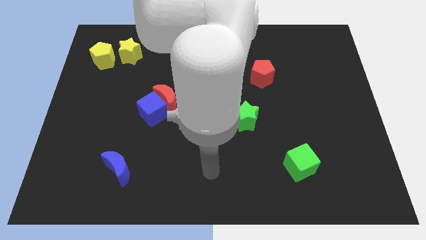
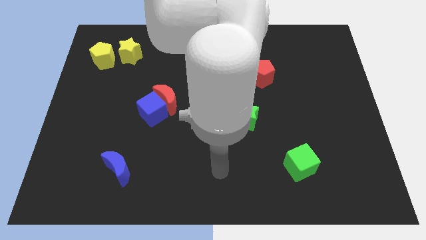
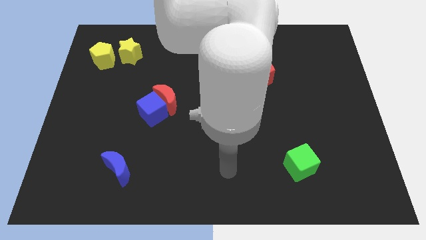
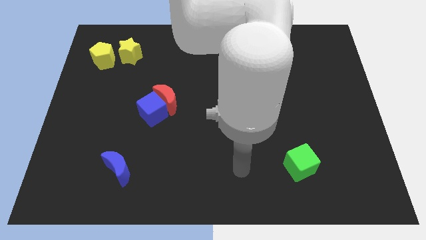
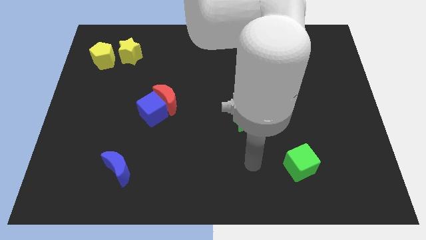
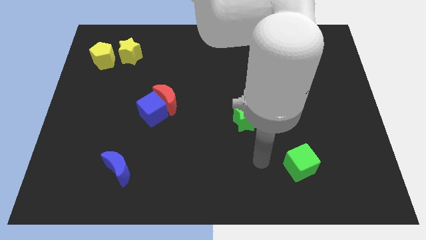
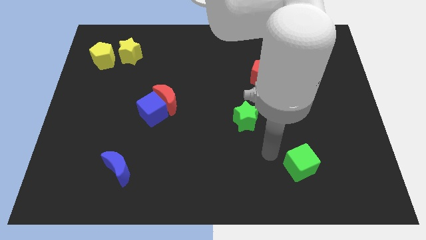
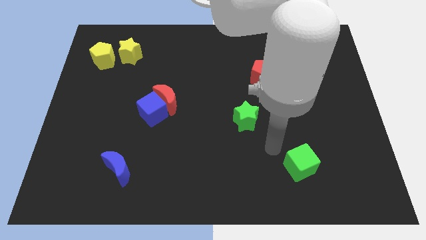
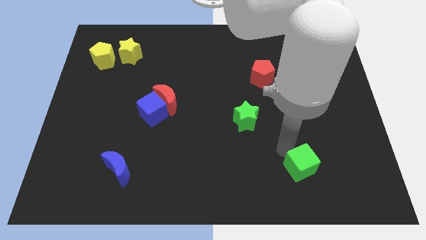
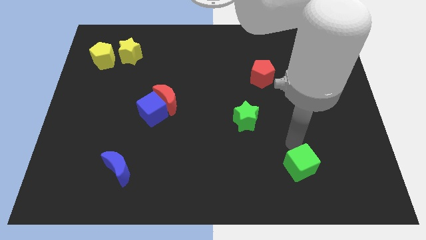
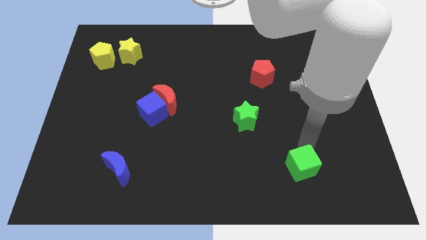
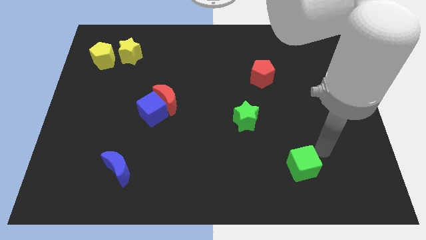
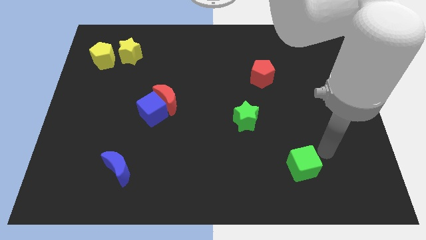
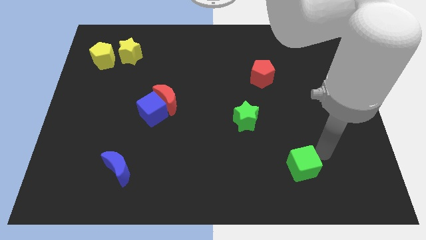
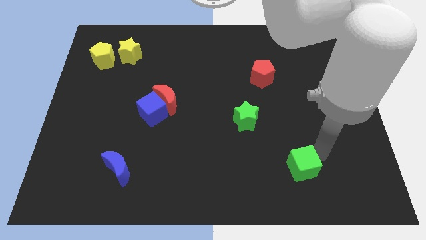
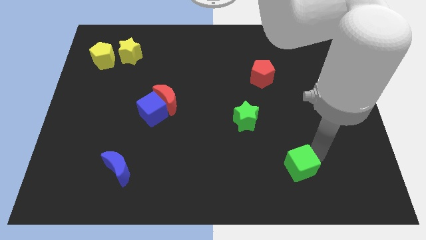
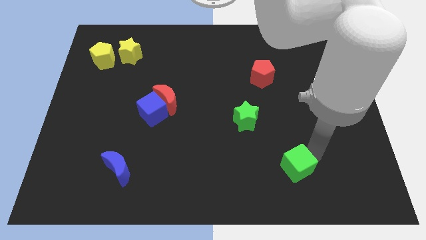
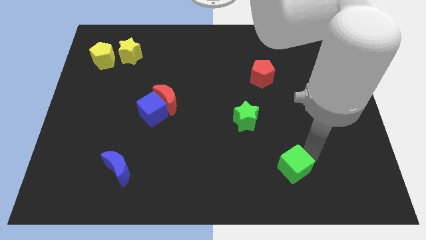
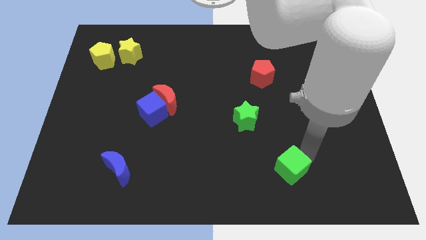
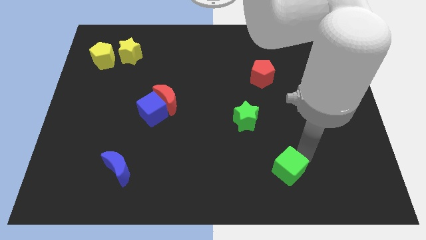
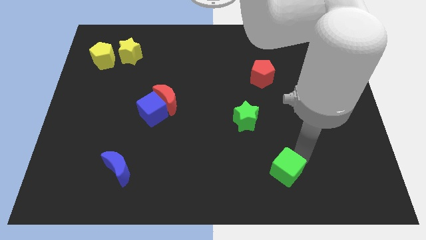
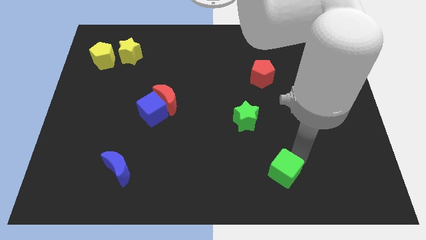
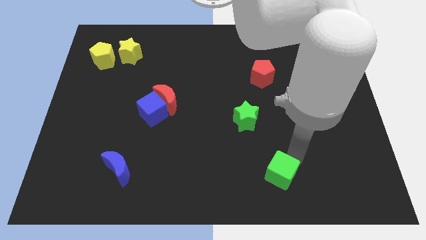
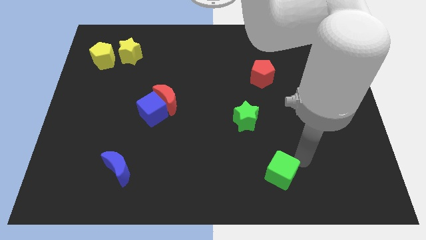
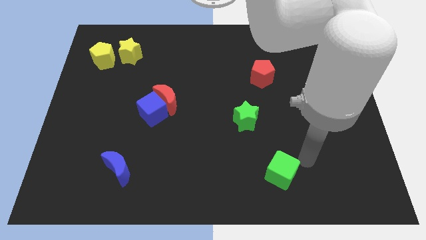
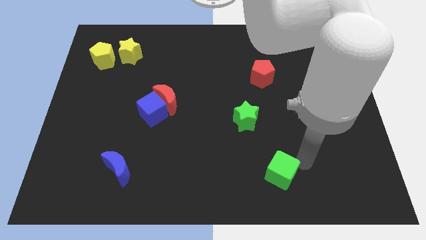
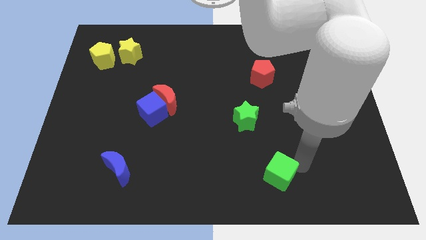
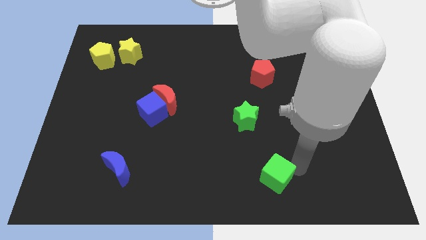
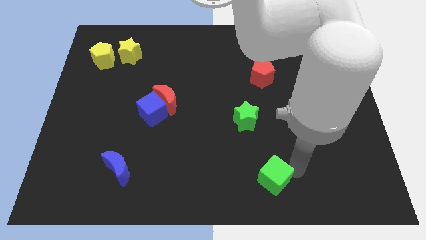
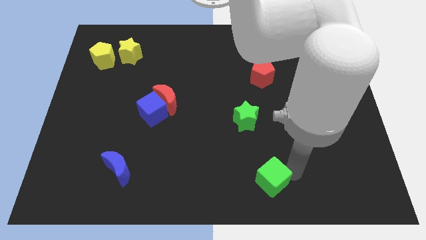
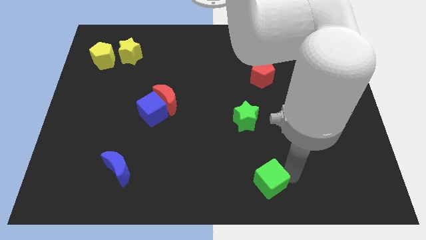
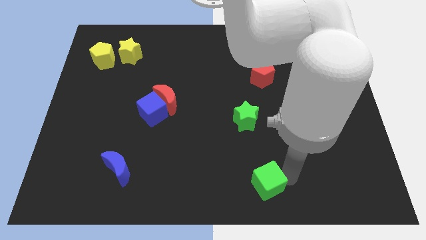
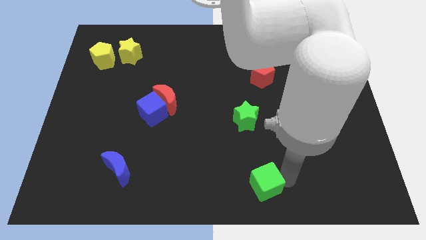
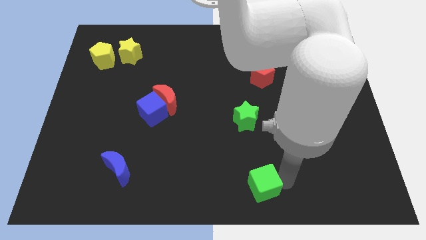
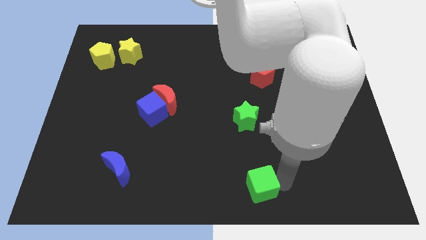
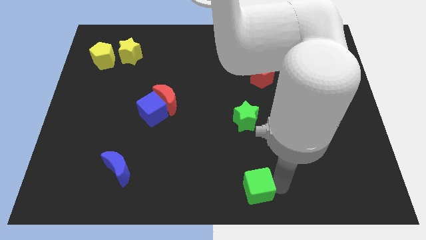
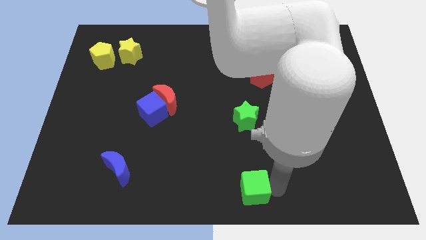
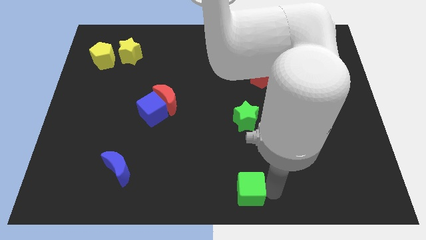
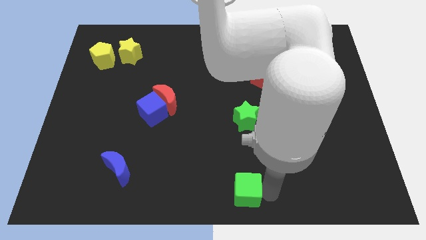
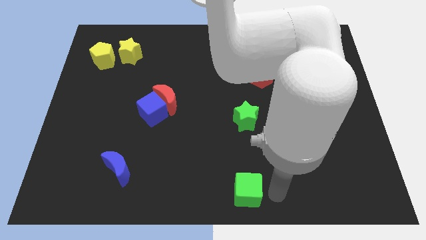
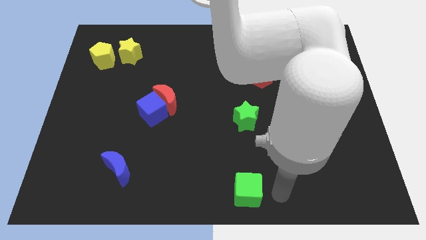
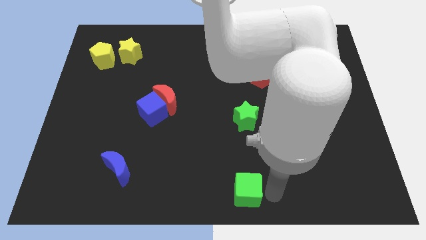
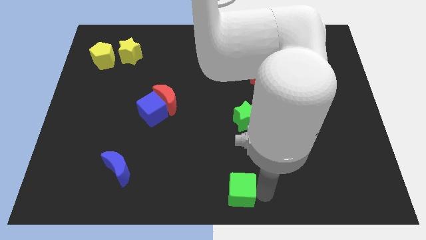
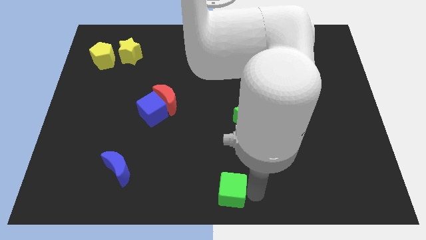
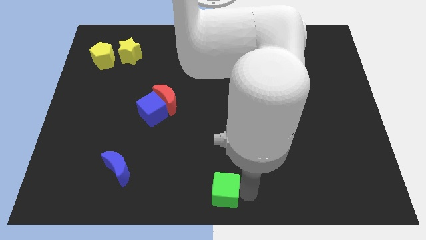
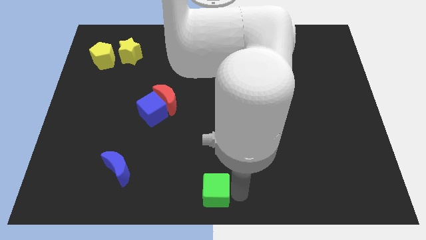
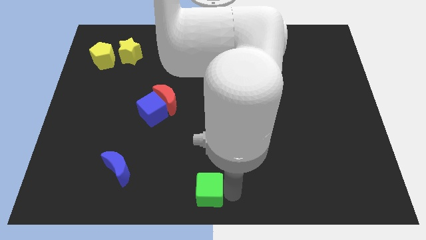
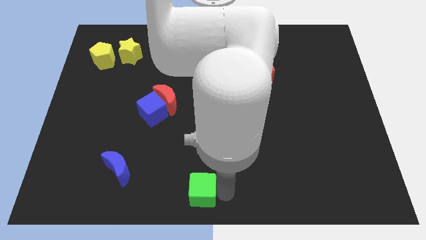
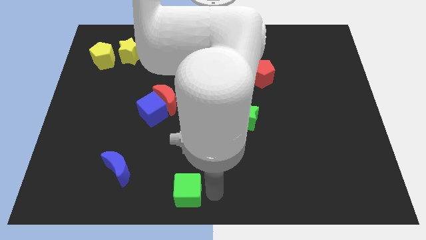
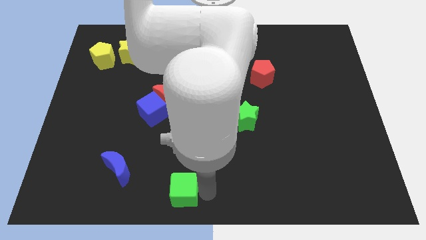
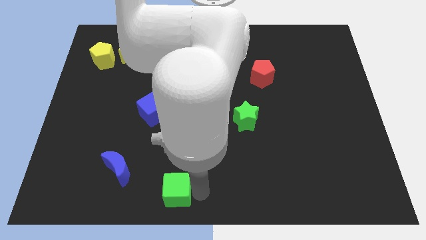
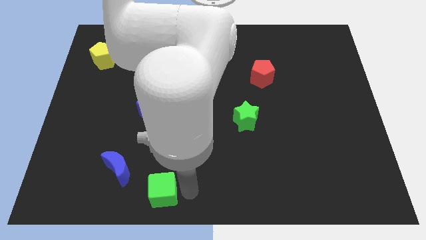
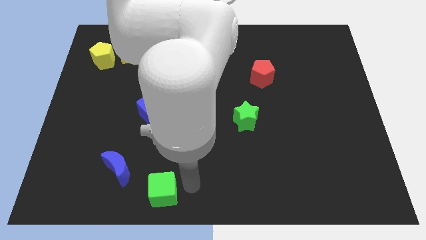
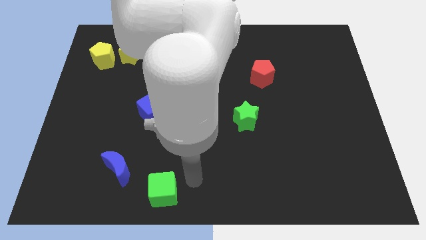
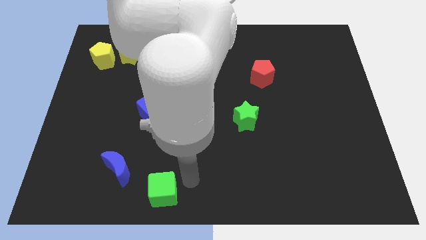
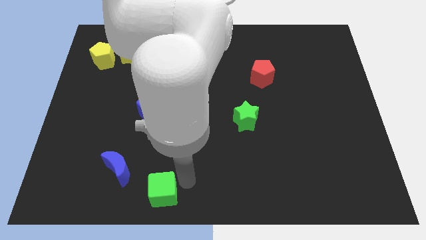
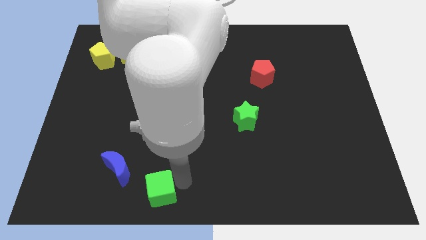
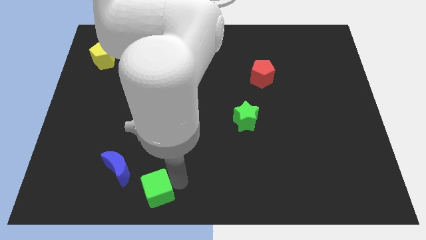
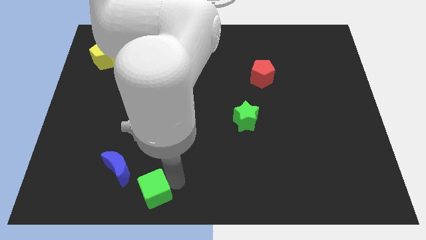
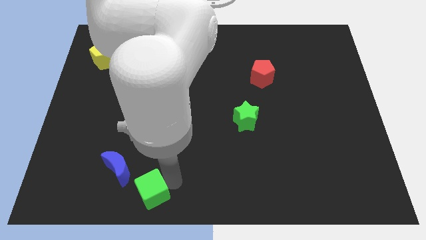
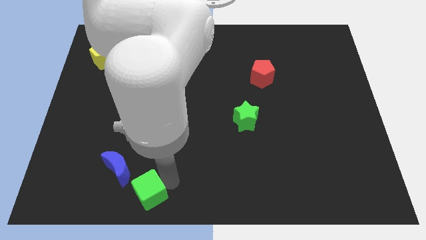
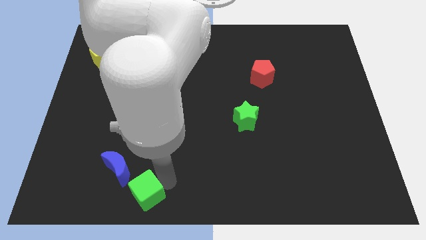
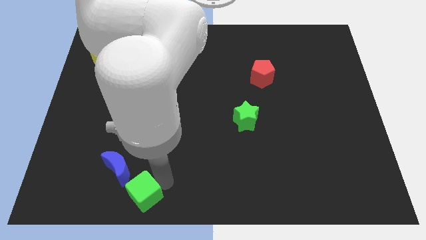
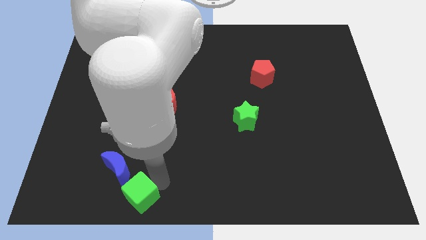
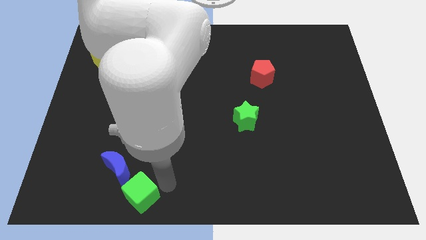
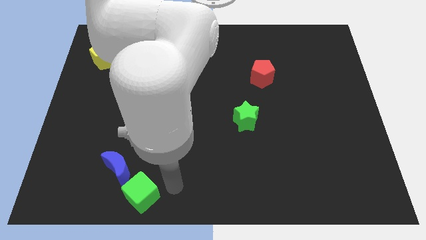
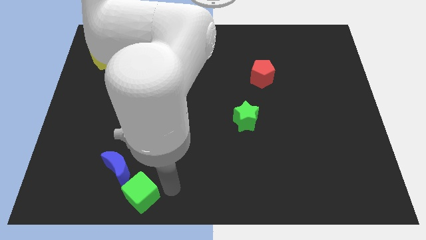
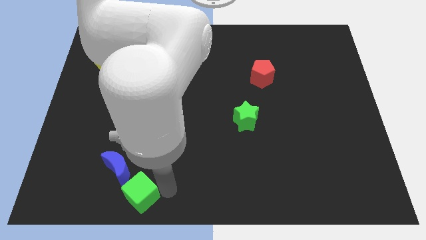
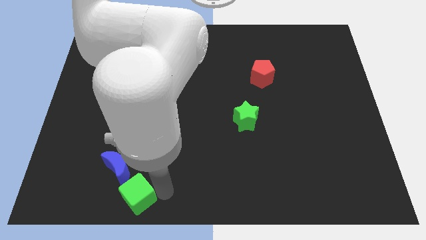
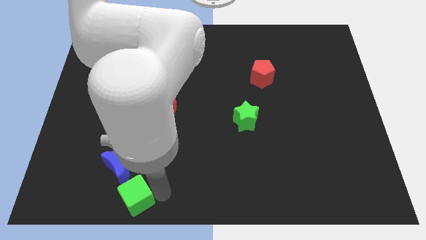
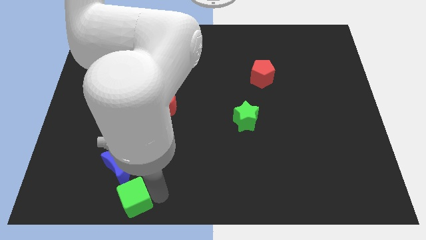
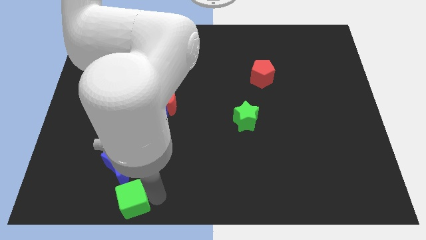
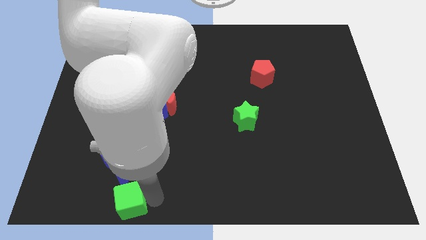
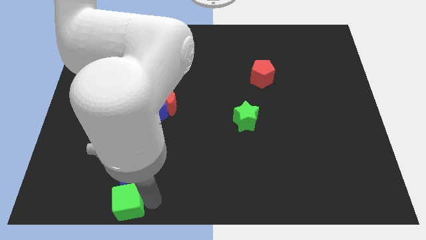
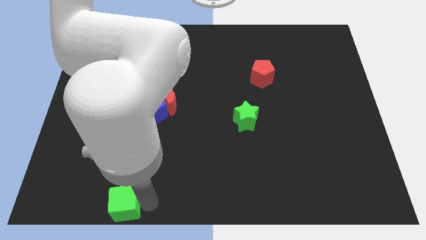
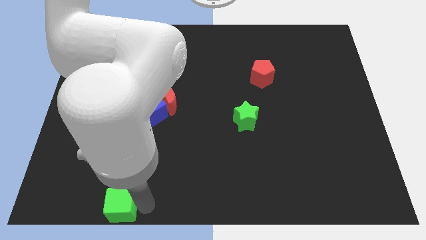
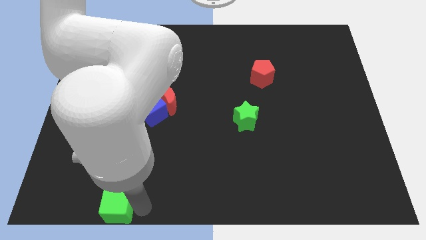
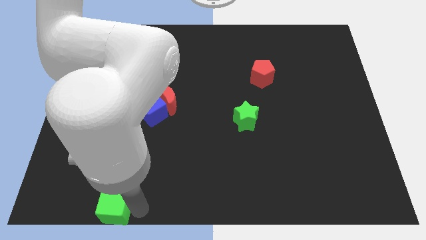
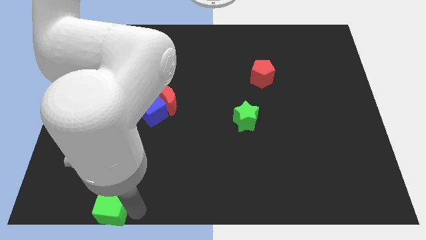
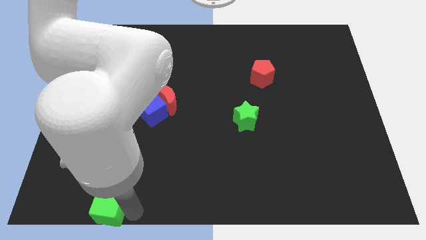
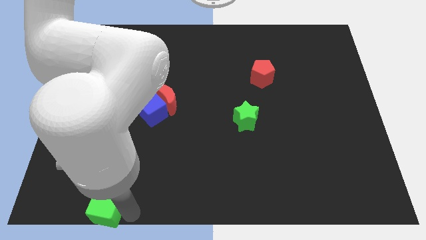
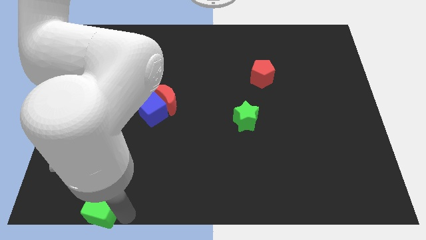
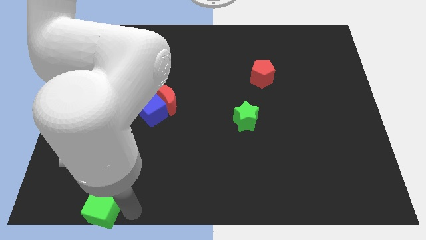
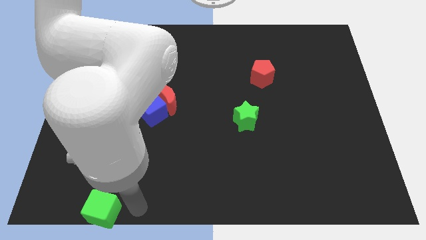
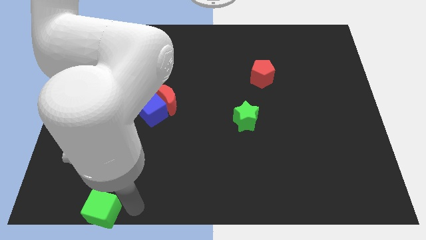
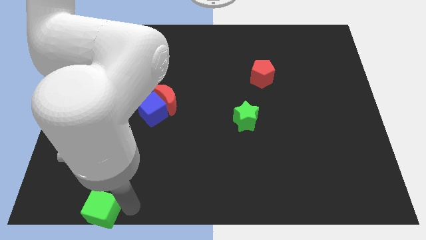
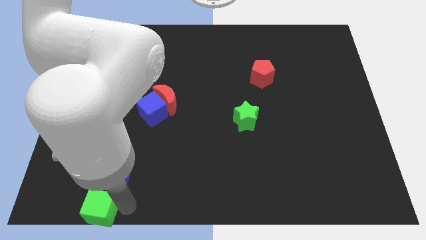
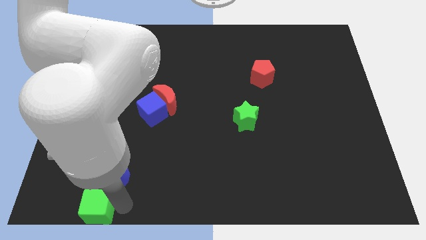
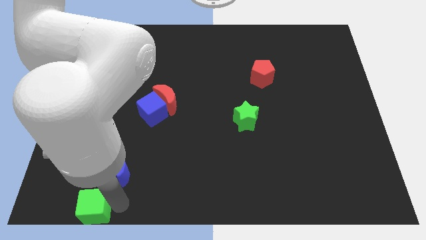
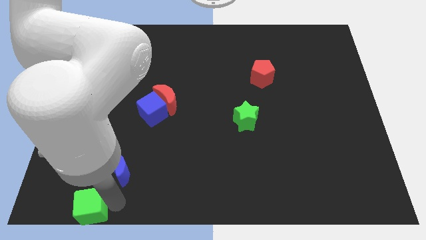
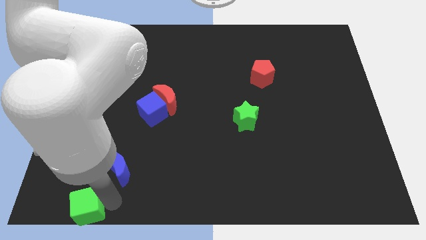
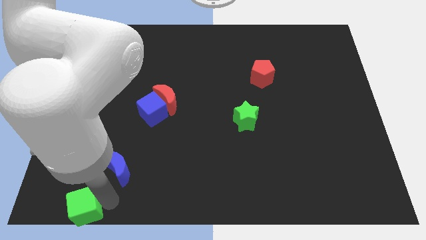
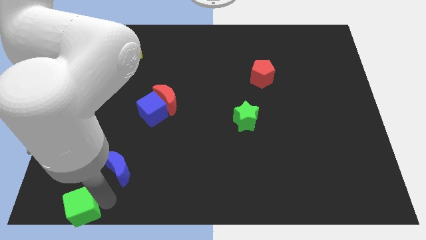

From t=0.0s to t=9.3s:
put the green cube to the bottom left of the board
